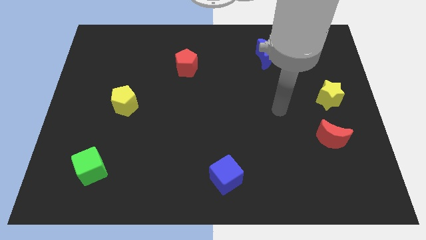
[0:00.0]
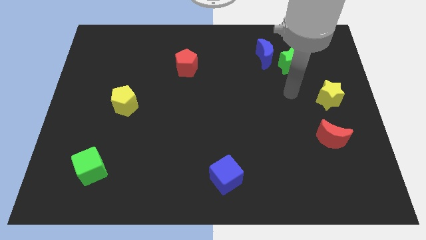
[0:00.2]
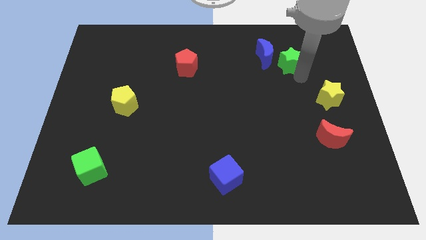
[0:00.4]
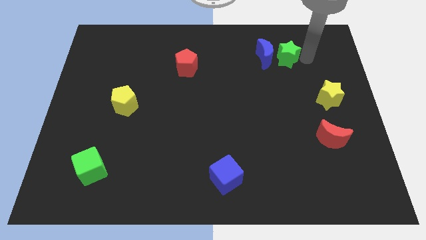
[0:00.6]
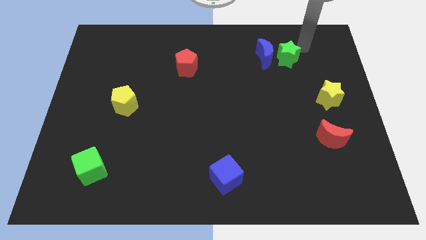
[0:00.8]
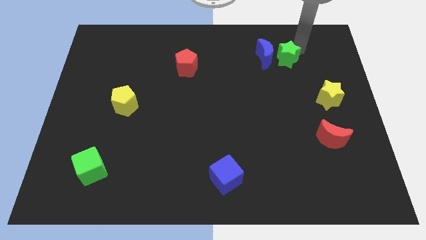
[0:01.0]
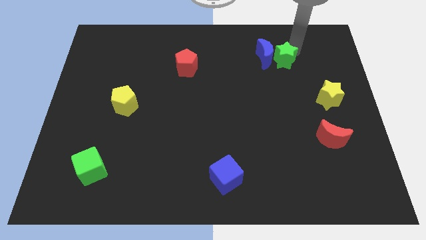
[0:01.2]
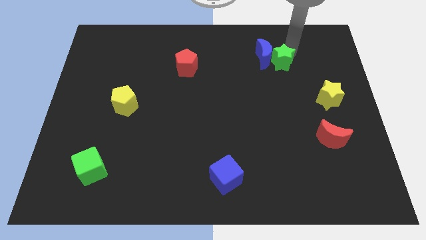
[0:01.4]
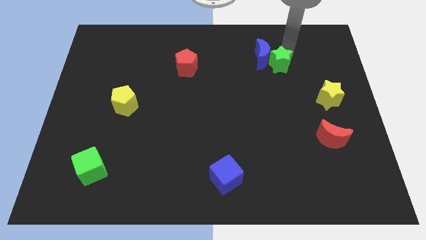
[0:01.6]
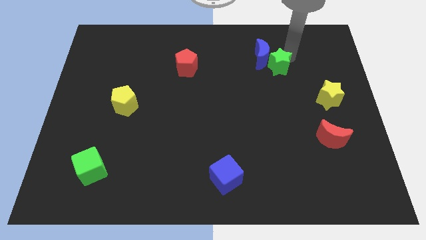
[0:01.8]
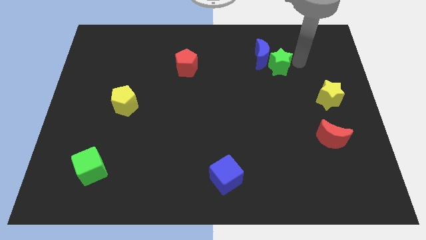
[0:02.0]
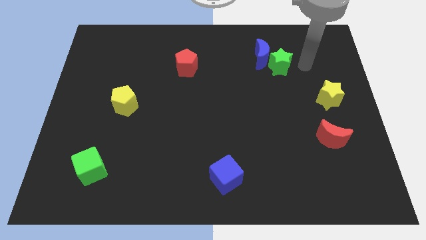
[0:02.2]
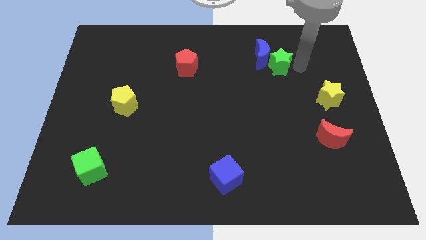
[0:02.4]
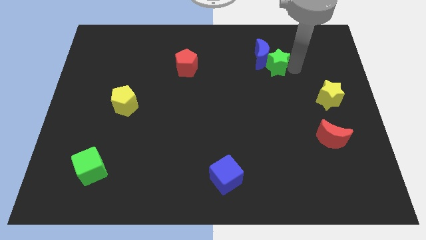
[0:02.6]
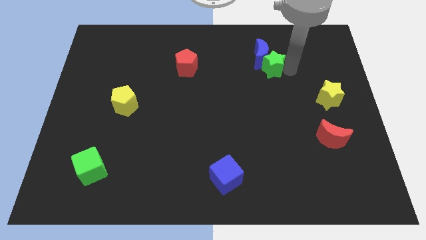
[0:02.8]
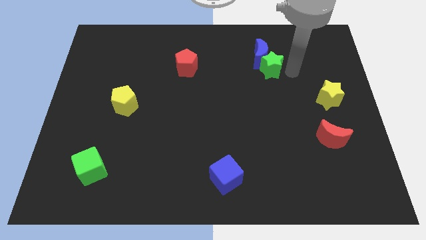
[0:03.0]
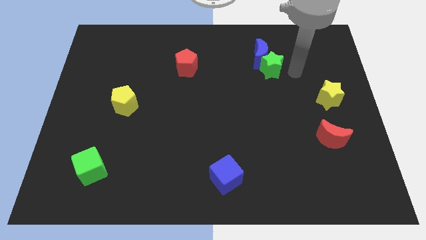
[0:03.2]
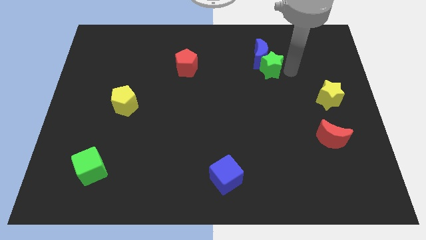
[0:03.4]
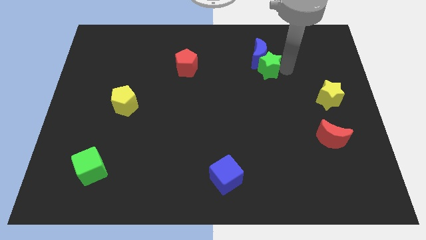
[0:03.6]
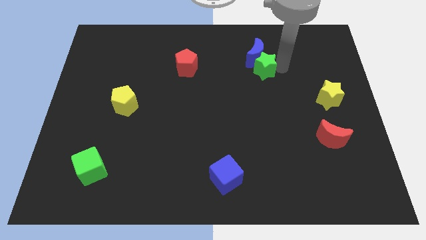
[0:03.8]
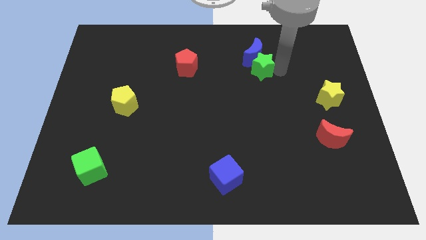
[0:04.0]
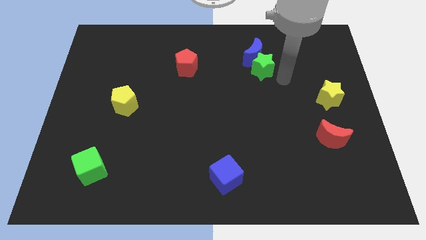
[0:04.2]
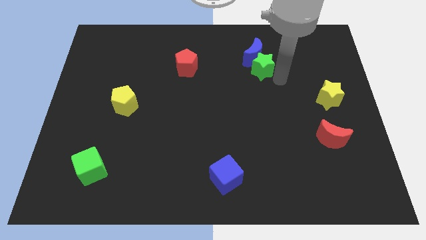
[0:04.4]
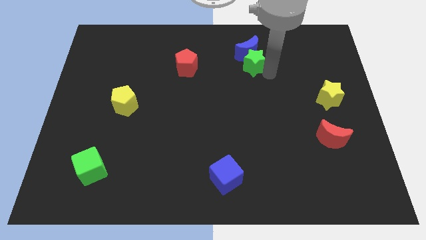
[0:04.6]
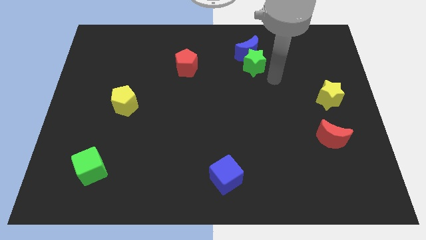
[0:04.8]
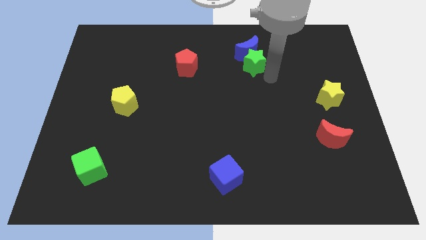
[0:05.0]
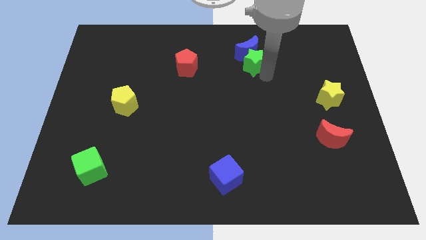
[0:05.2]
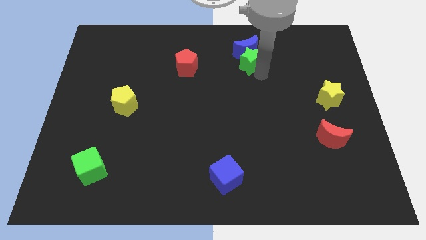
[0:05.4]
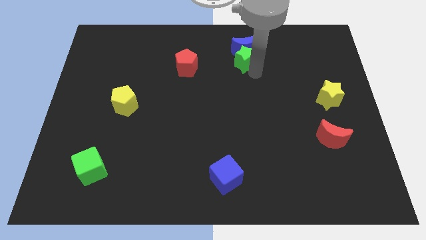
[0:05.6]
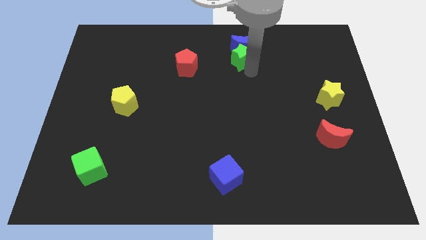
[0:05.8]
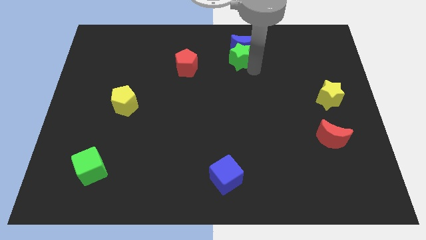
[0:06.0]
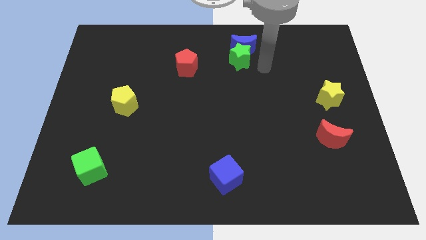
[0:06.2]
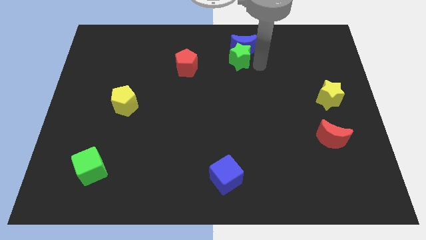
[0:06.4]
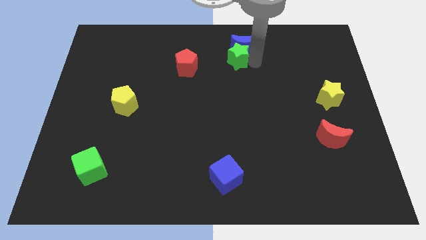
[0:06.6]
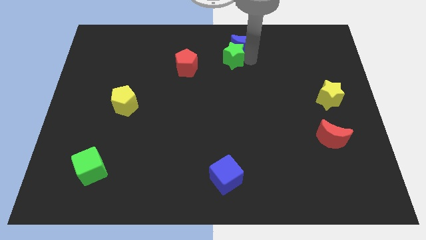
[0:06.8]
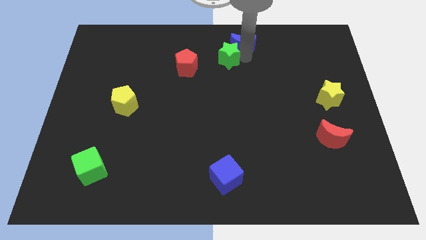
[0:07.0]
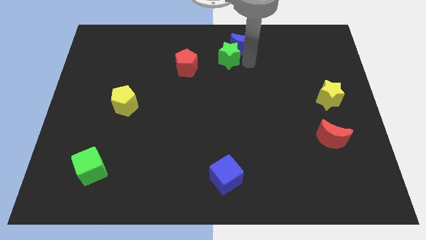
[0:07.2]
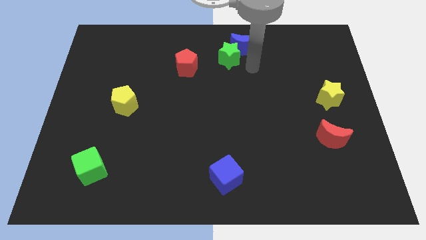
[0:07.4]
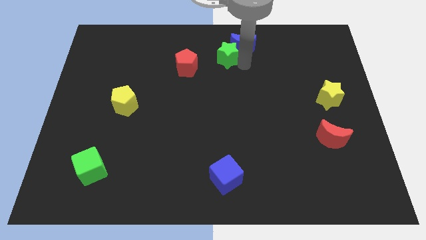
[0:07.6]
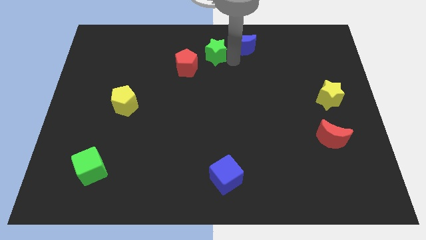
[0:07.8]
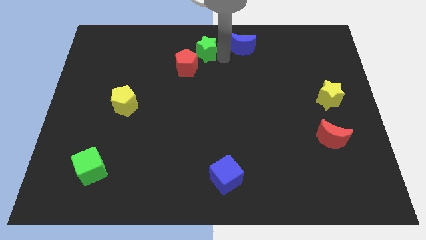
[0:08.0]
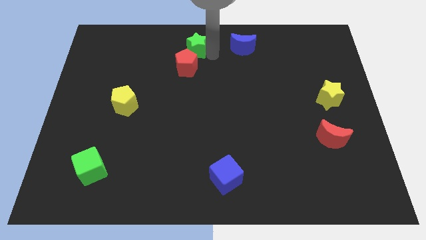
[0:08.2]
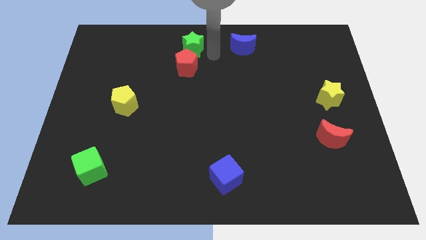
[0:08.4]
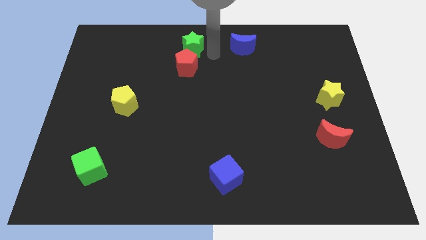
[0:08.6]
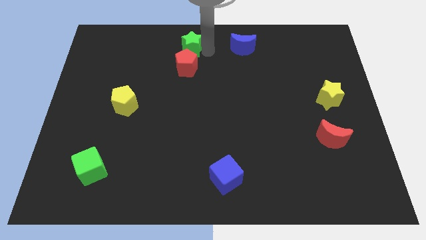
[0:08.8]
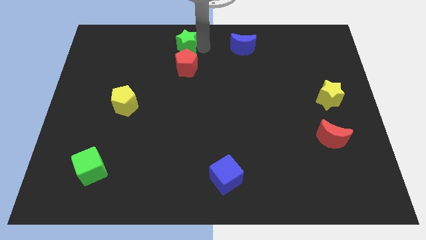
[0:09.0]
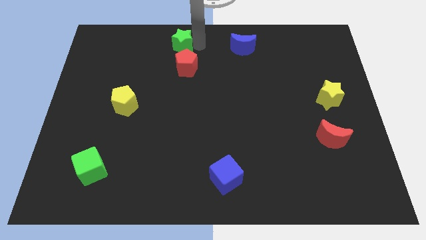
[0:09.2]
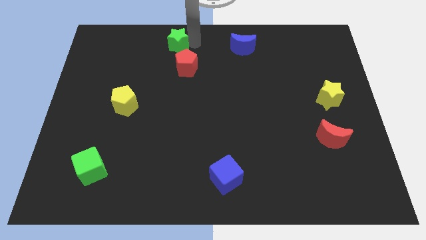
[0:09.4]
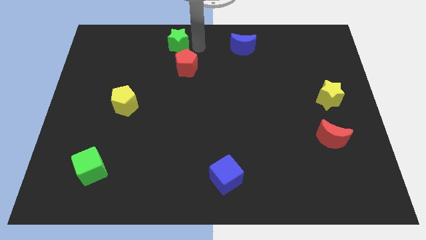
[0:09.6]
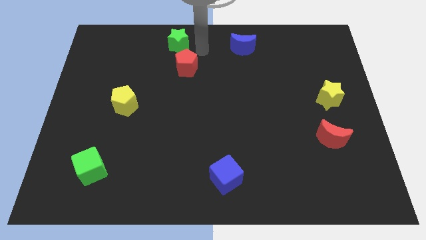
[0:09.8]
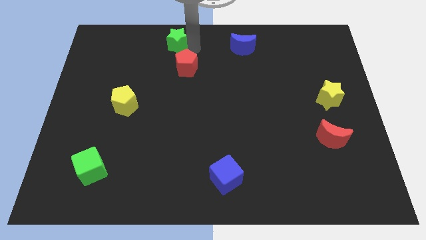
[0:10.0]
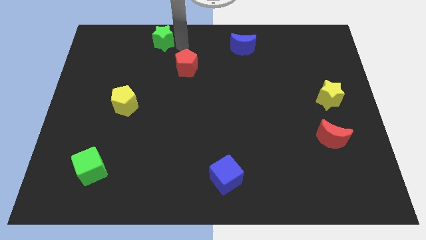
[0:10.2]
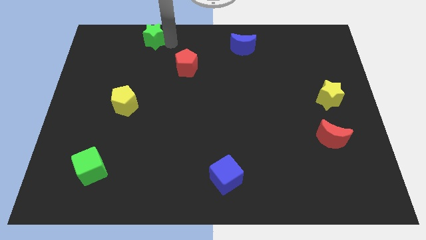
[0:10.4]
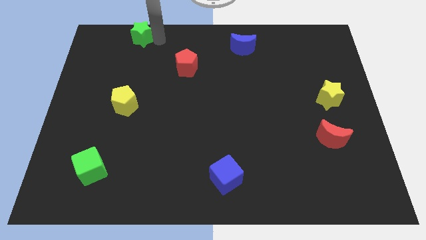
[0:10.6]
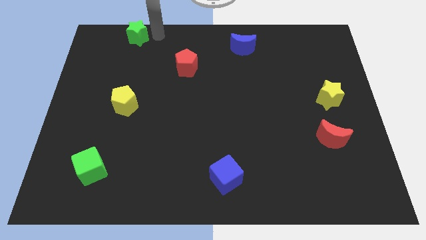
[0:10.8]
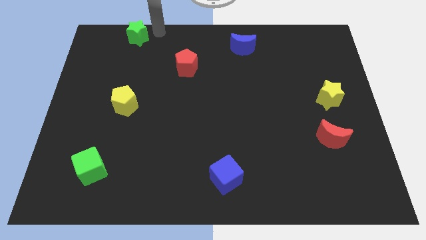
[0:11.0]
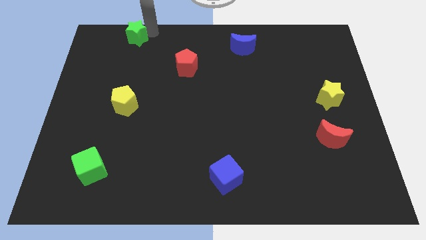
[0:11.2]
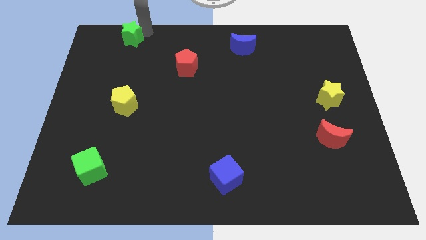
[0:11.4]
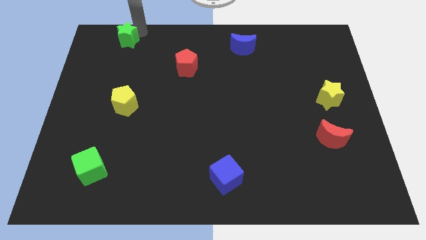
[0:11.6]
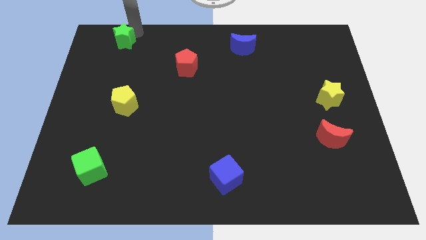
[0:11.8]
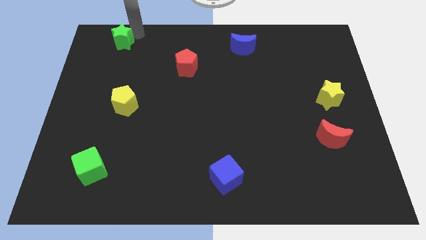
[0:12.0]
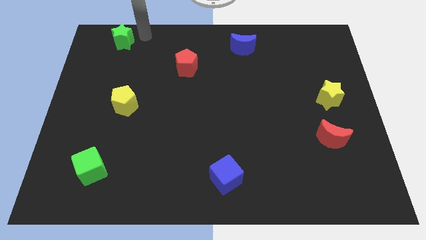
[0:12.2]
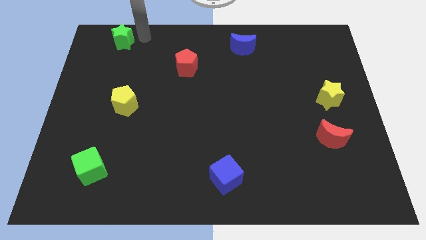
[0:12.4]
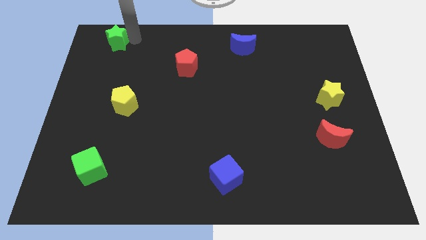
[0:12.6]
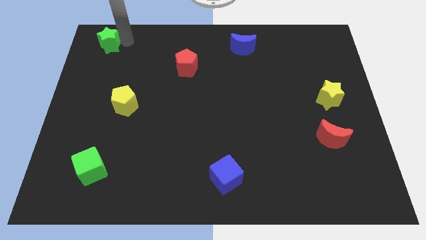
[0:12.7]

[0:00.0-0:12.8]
put the green star to the upper left corner
